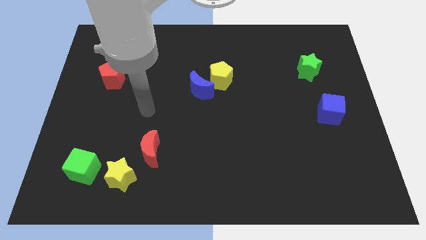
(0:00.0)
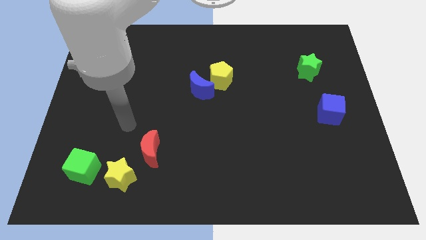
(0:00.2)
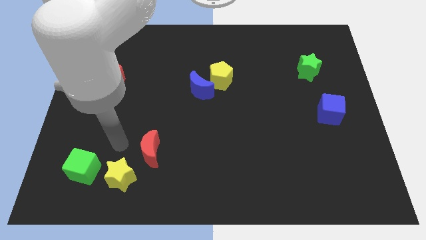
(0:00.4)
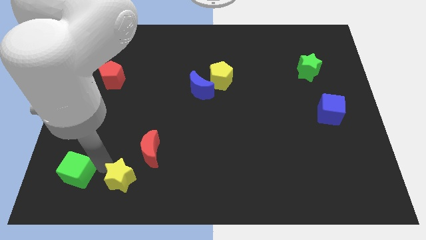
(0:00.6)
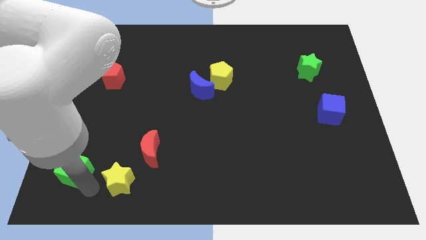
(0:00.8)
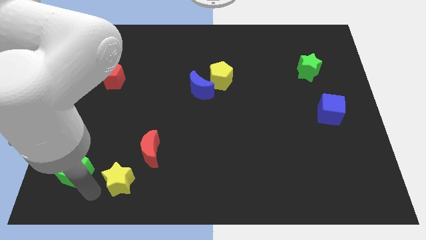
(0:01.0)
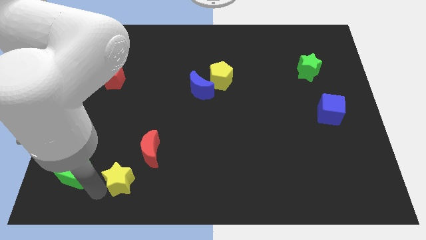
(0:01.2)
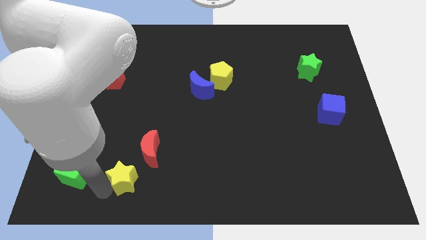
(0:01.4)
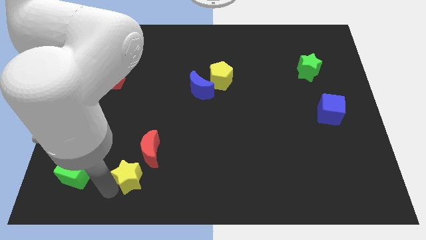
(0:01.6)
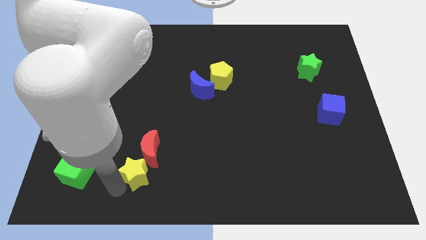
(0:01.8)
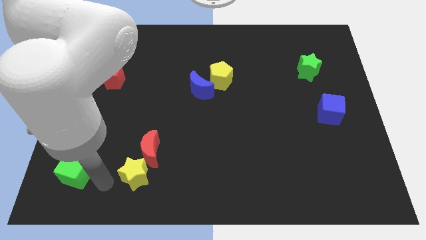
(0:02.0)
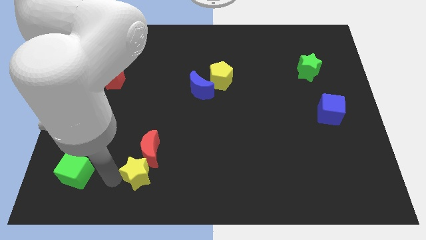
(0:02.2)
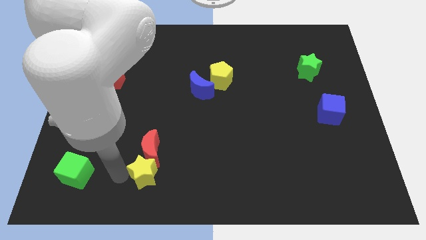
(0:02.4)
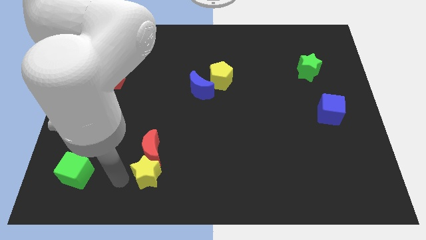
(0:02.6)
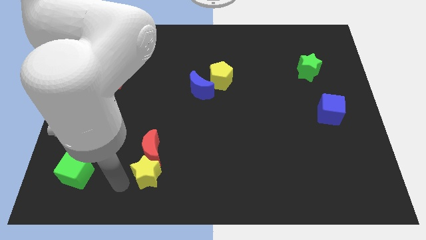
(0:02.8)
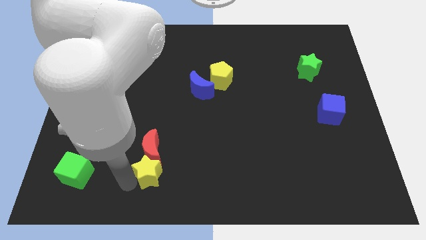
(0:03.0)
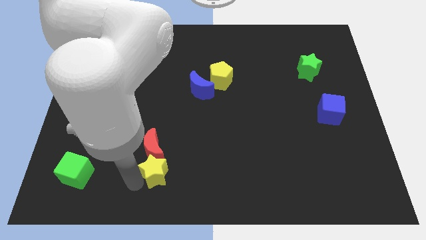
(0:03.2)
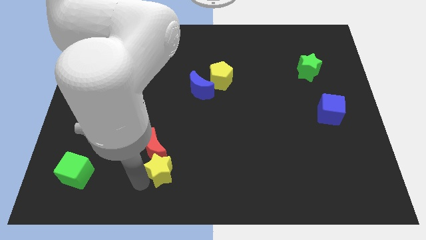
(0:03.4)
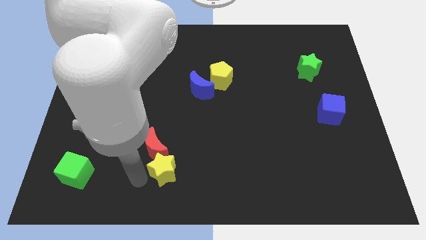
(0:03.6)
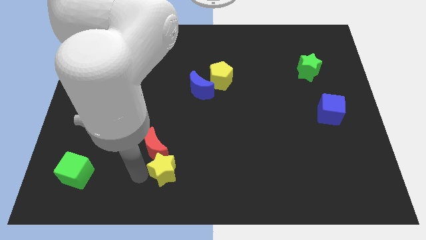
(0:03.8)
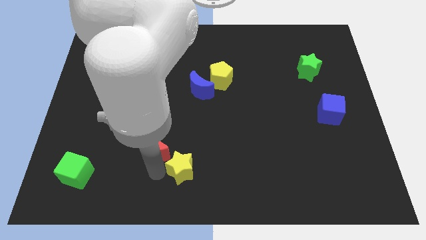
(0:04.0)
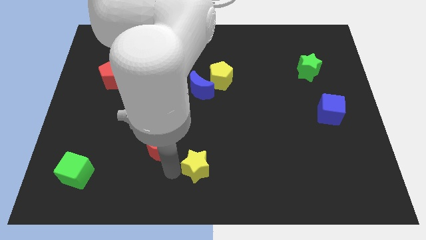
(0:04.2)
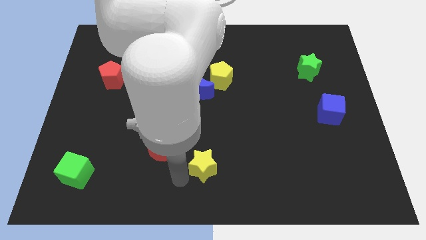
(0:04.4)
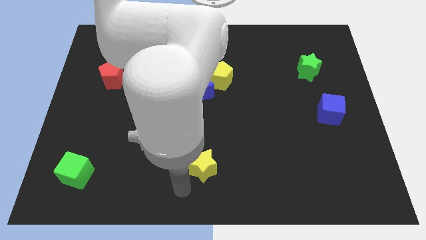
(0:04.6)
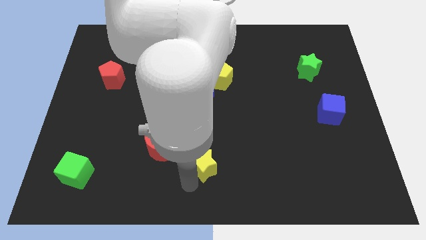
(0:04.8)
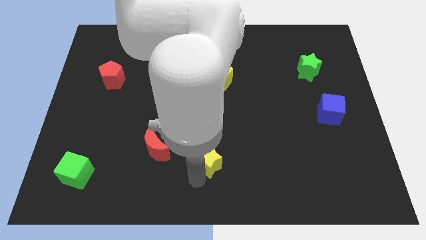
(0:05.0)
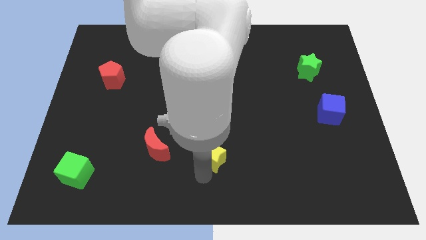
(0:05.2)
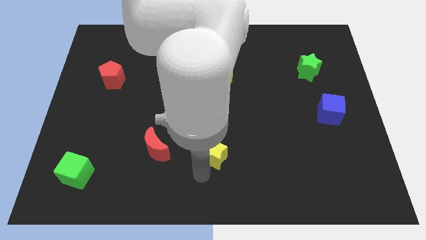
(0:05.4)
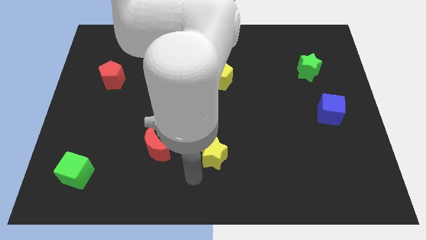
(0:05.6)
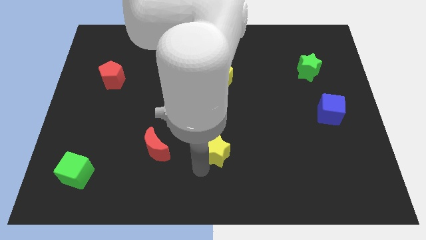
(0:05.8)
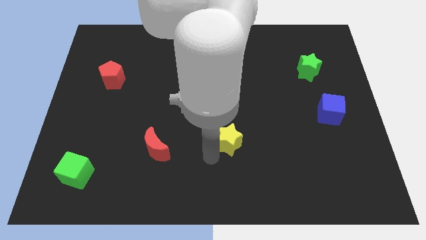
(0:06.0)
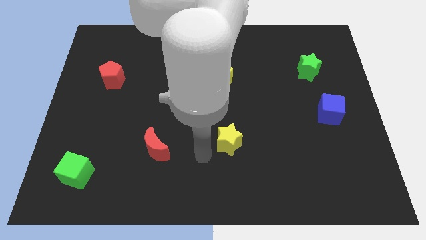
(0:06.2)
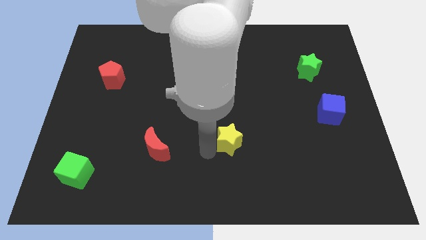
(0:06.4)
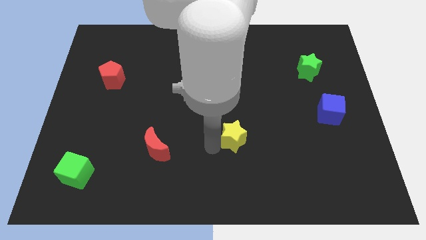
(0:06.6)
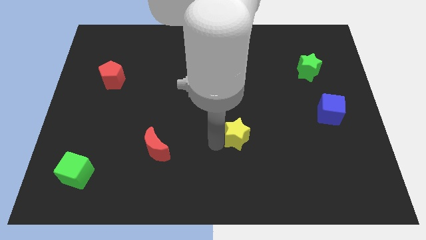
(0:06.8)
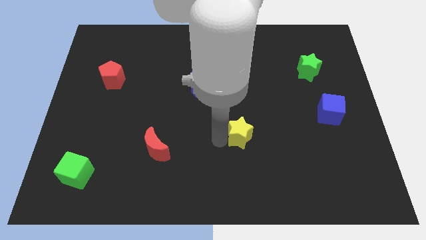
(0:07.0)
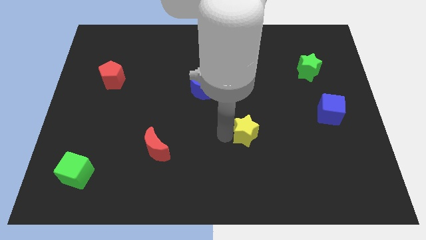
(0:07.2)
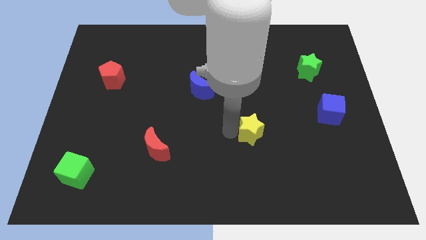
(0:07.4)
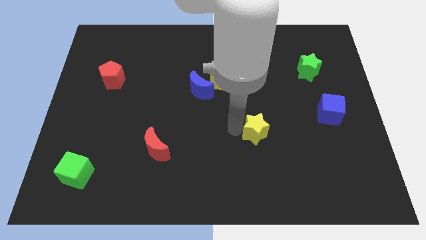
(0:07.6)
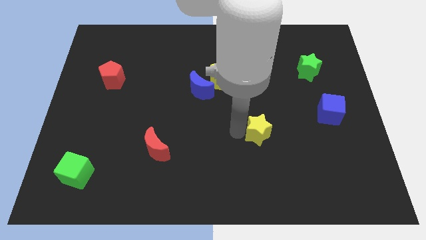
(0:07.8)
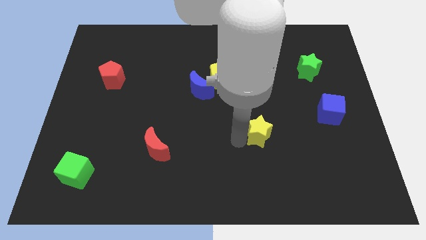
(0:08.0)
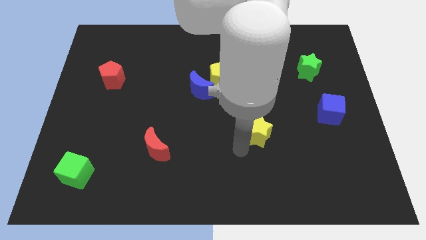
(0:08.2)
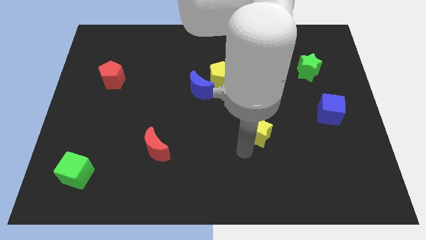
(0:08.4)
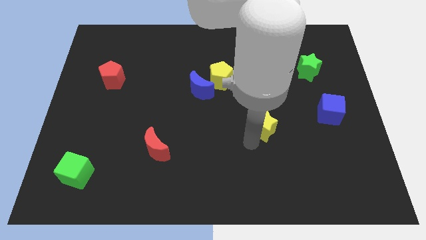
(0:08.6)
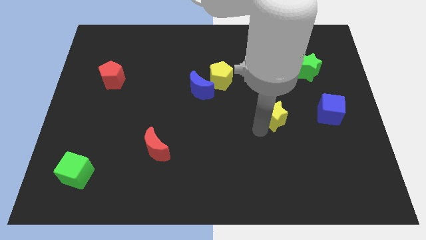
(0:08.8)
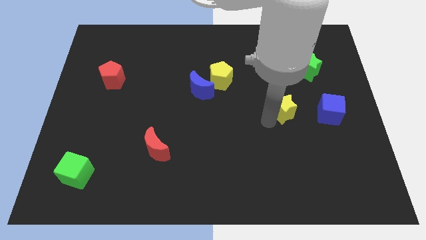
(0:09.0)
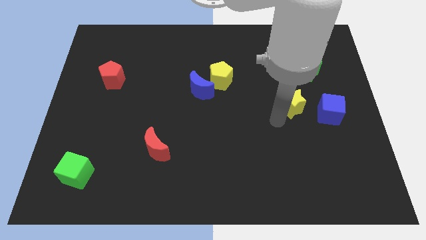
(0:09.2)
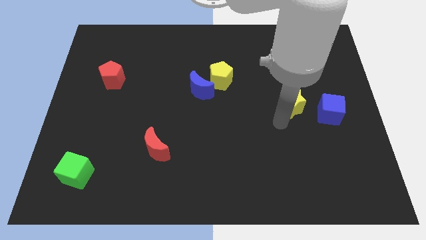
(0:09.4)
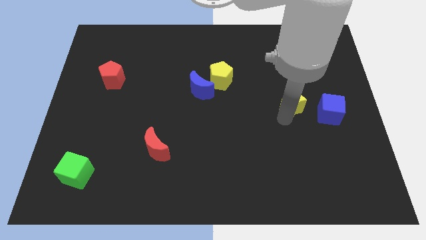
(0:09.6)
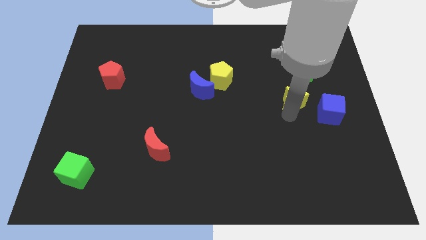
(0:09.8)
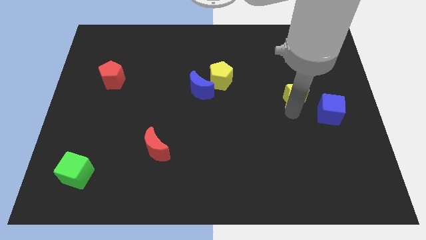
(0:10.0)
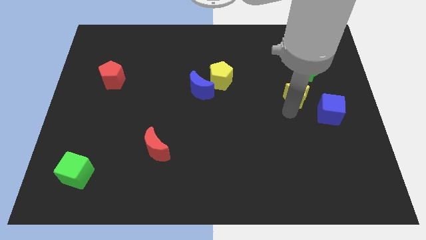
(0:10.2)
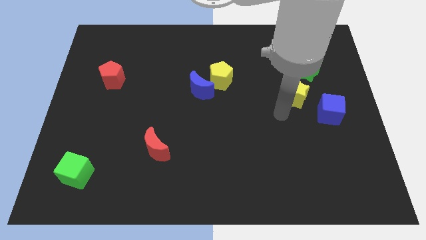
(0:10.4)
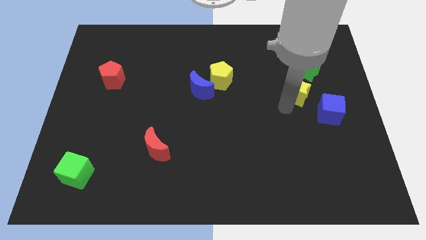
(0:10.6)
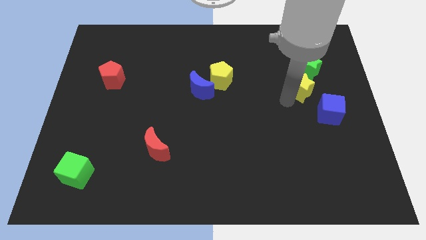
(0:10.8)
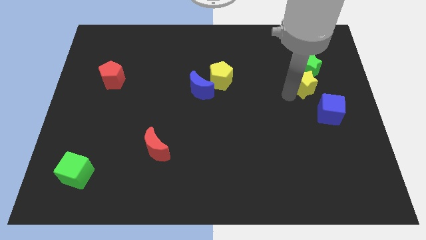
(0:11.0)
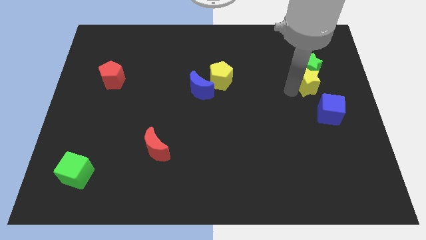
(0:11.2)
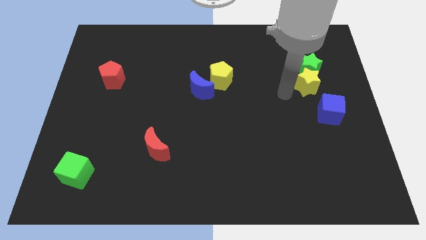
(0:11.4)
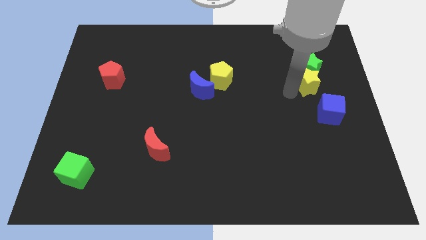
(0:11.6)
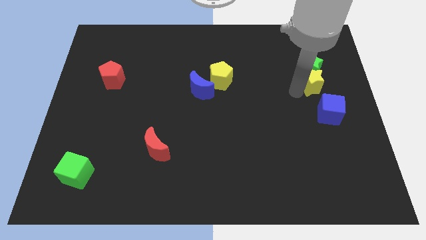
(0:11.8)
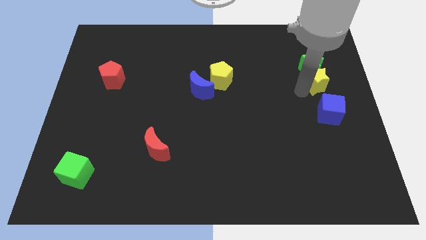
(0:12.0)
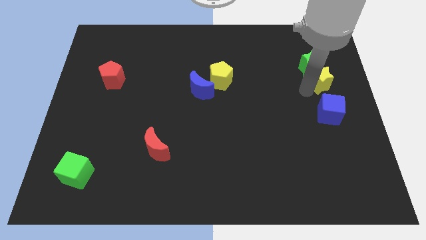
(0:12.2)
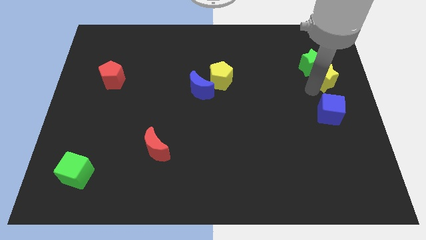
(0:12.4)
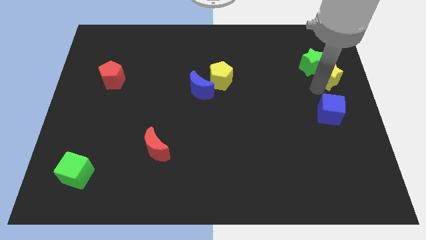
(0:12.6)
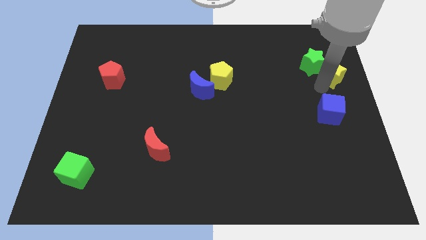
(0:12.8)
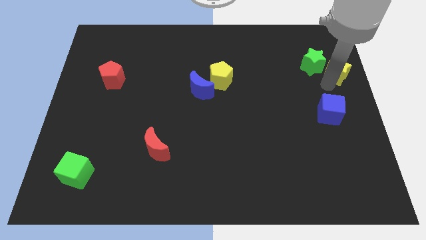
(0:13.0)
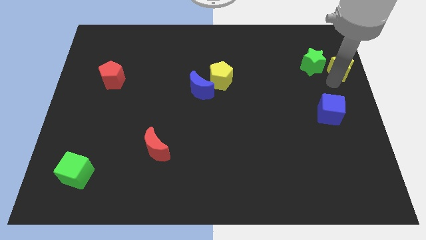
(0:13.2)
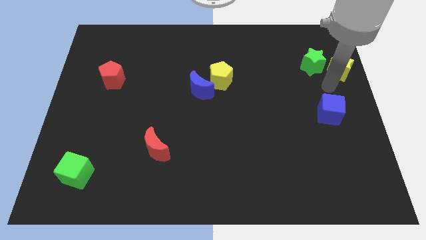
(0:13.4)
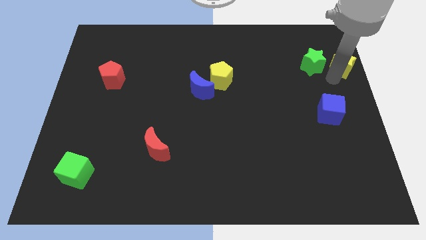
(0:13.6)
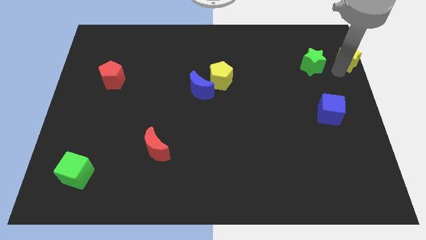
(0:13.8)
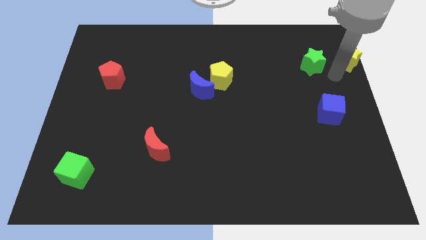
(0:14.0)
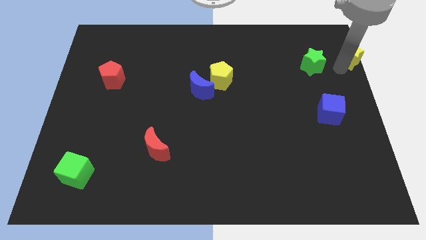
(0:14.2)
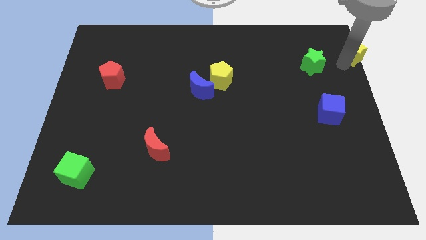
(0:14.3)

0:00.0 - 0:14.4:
slide the yellow star to the upper right corner
